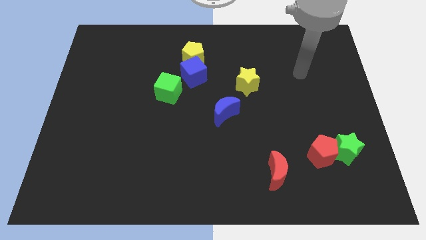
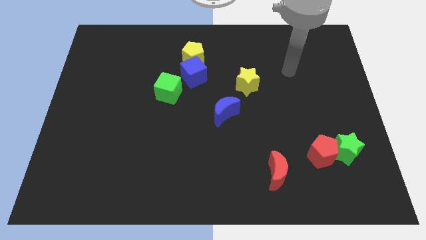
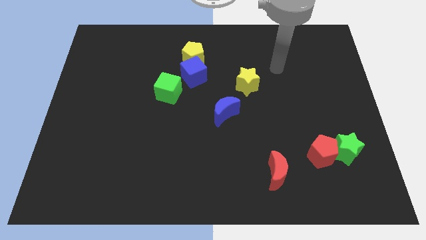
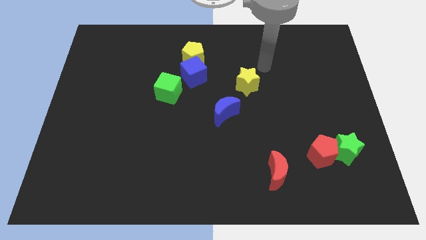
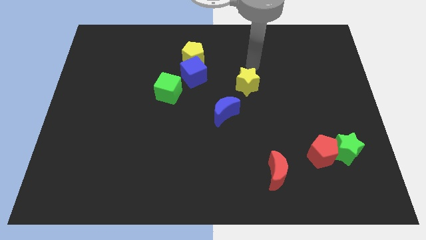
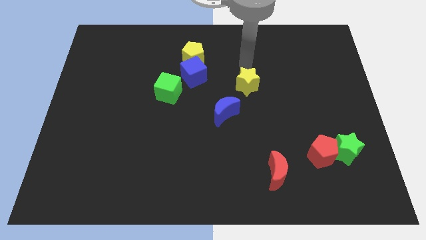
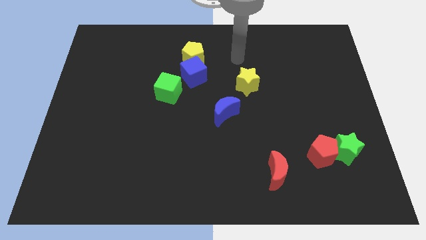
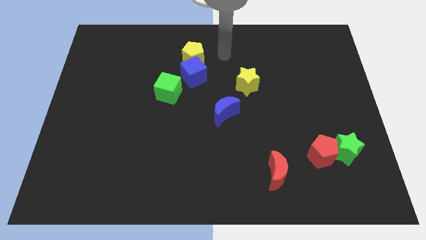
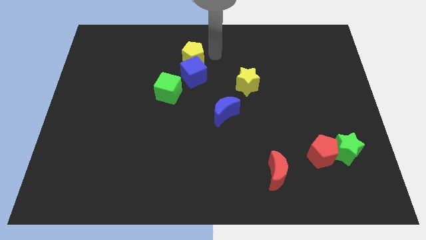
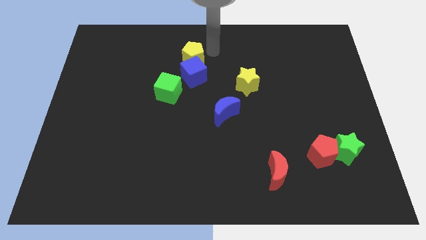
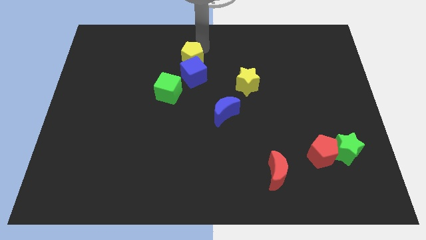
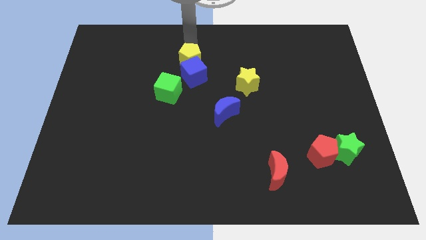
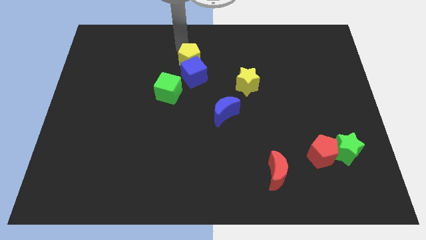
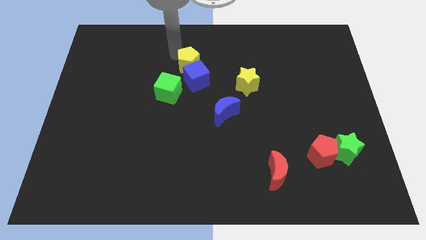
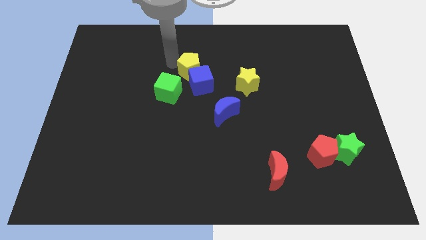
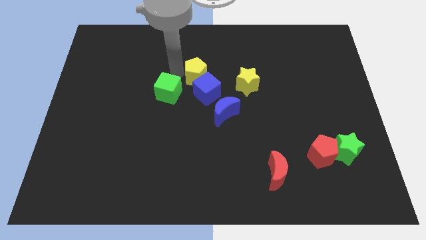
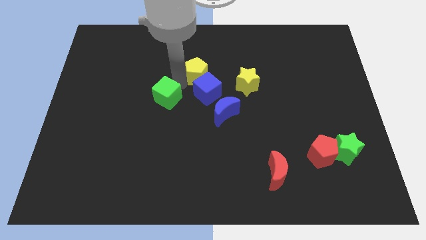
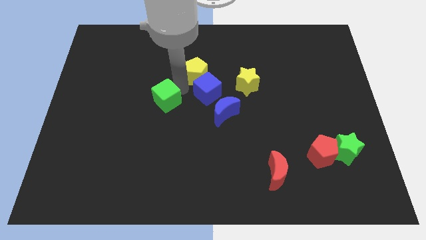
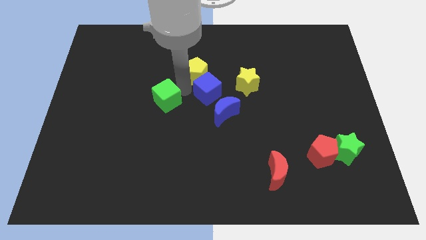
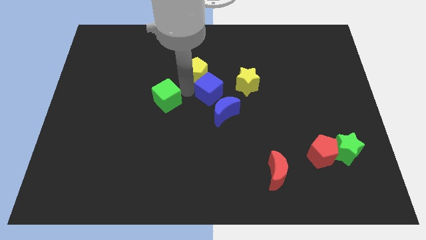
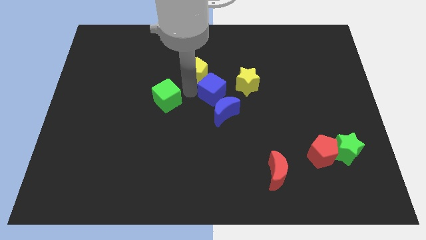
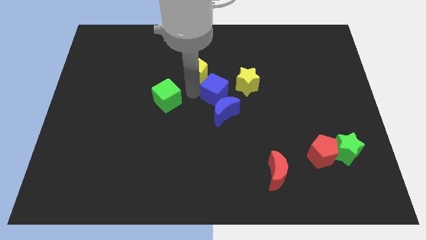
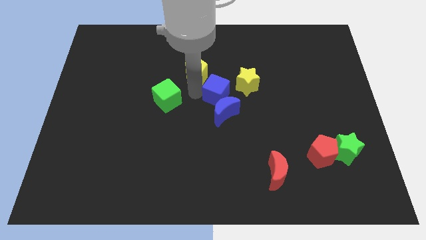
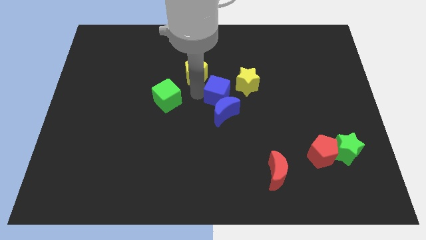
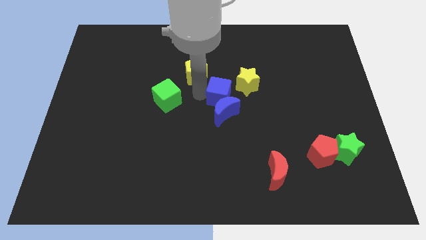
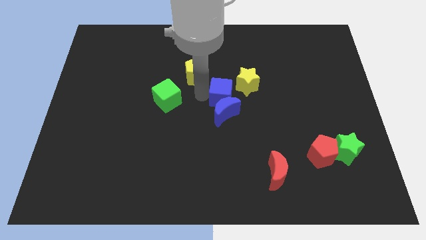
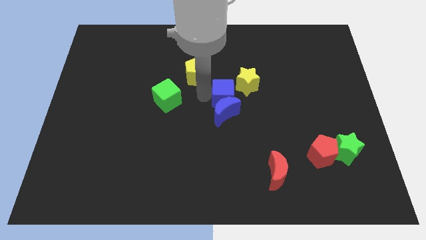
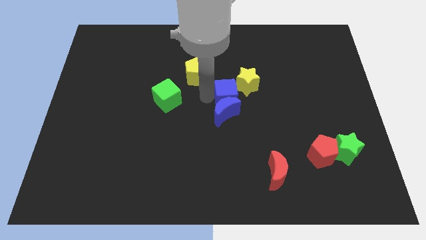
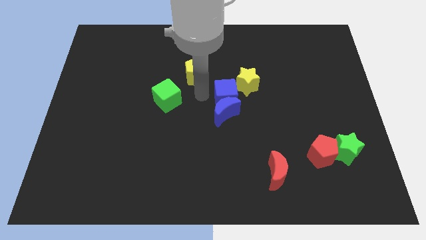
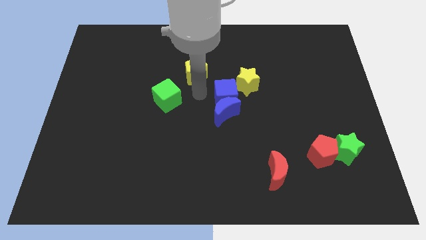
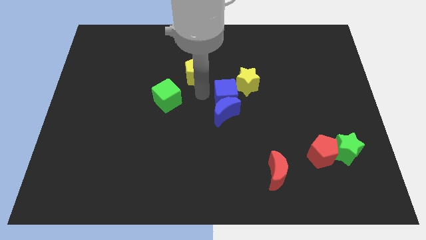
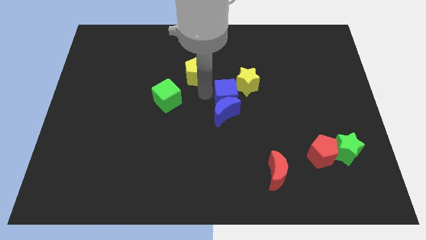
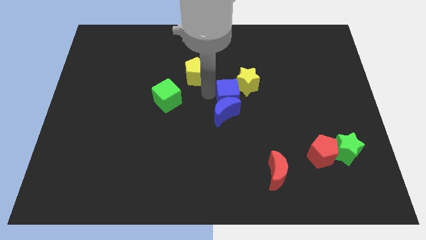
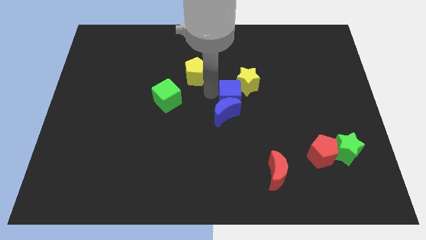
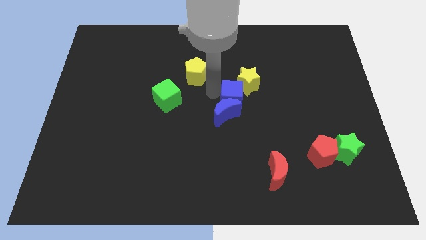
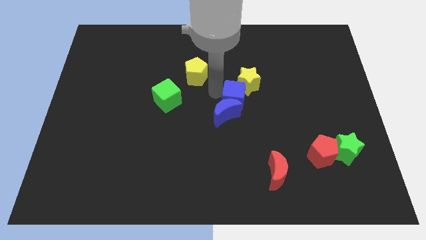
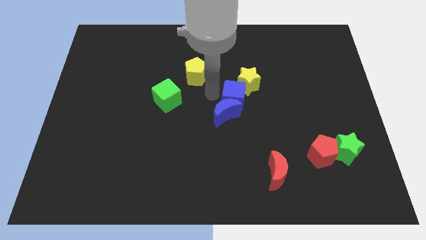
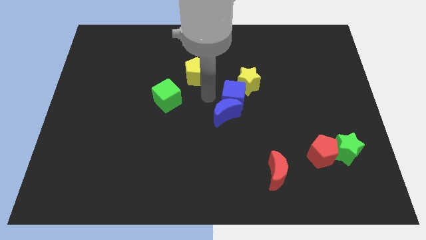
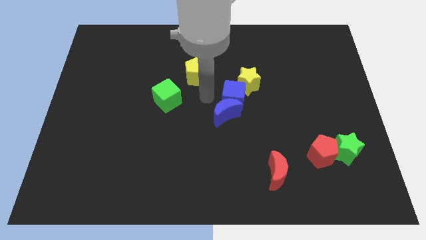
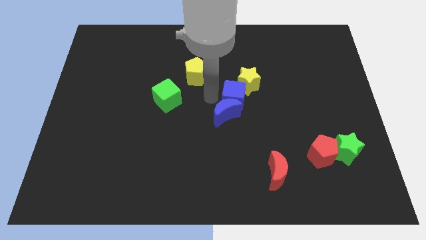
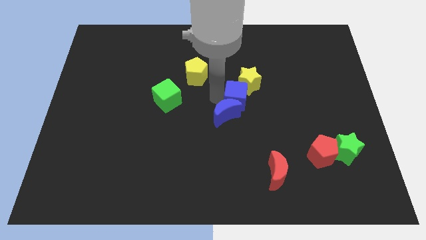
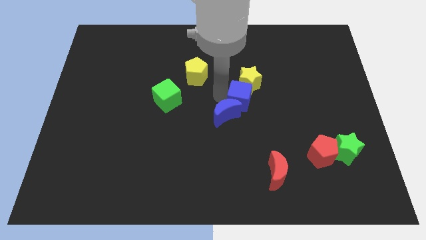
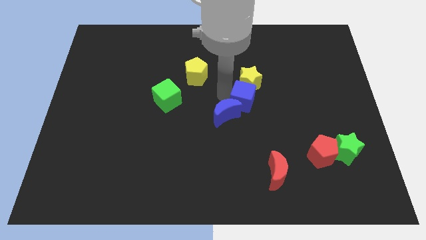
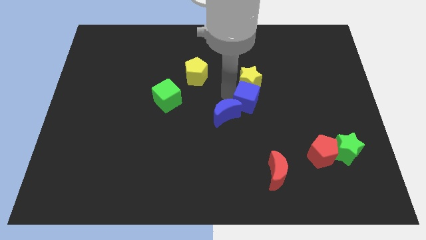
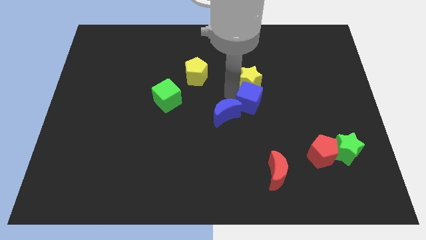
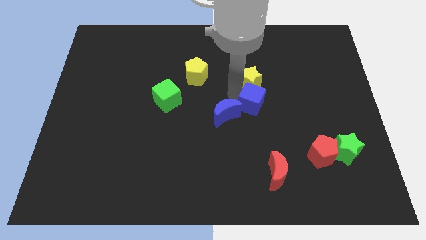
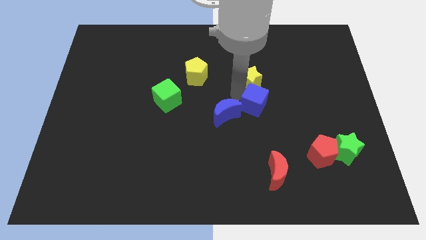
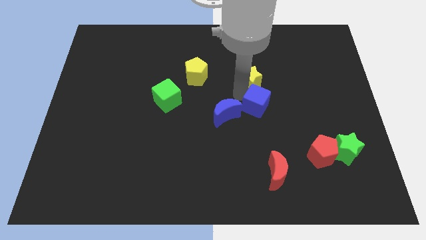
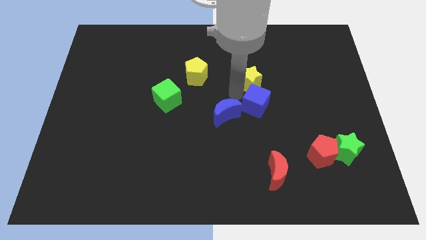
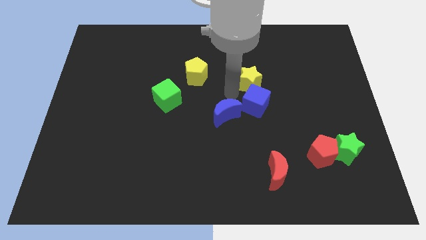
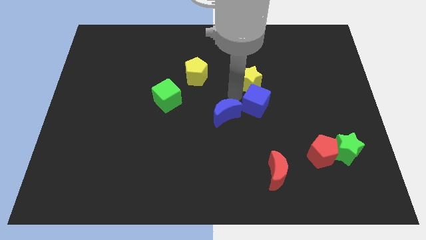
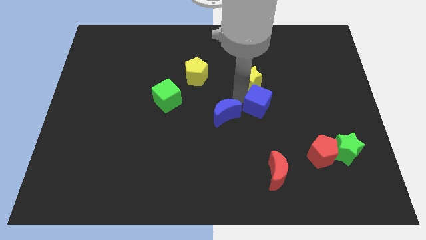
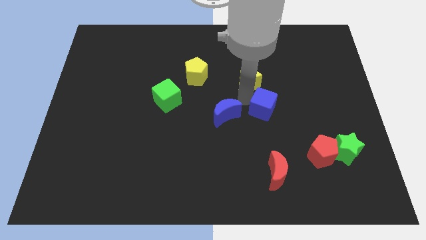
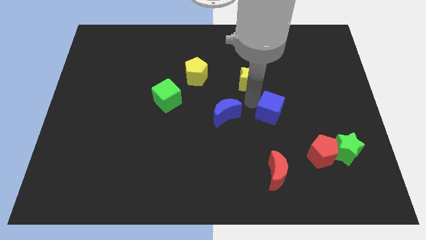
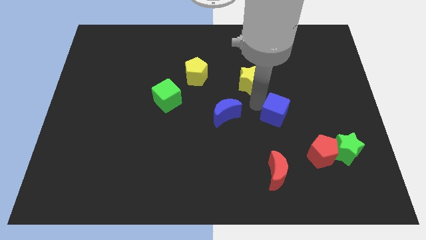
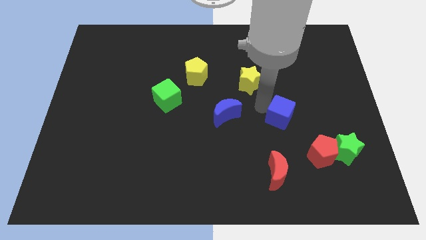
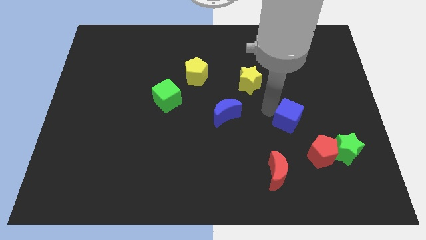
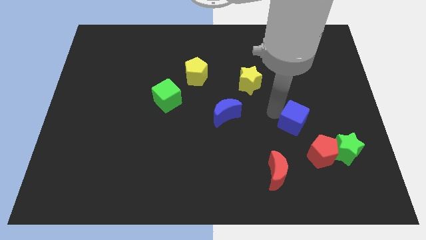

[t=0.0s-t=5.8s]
slide the blue cube diagonally up and to the left of the green star

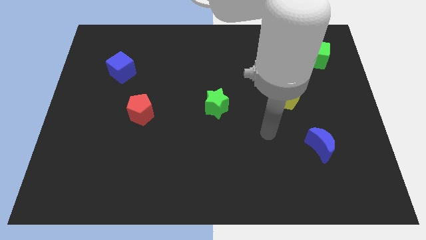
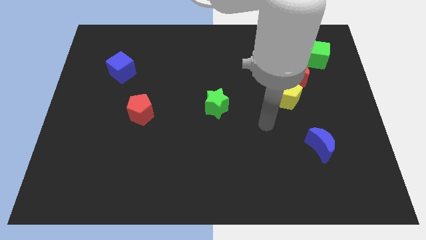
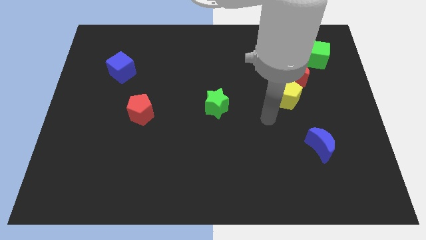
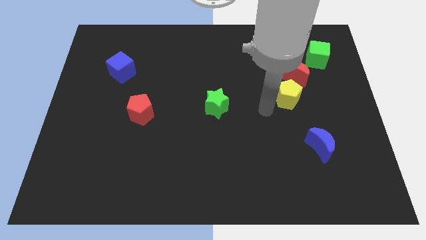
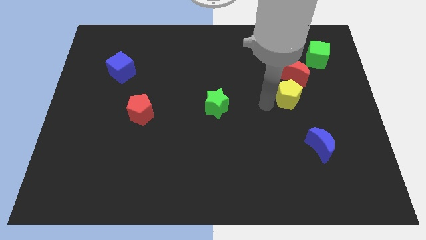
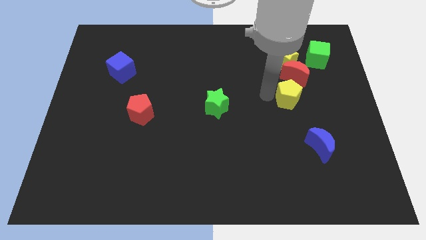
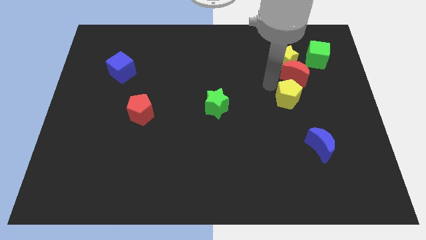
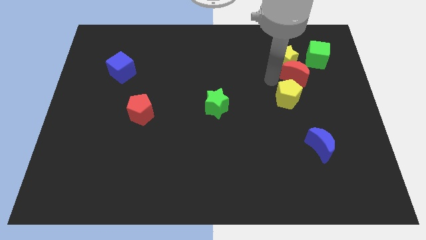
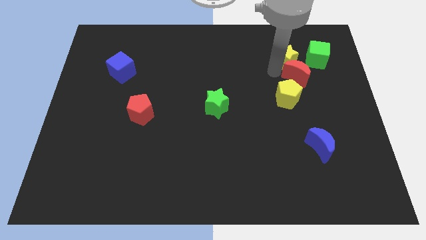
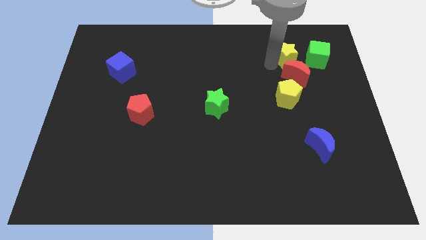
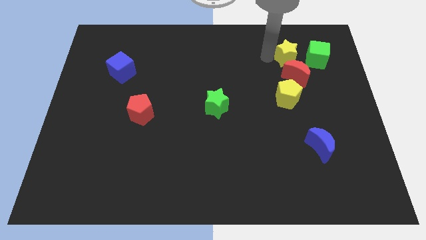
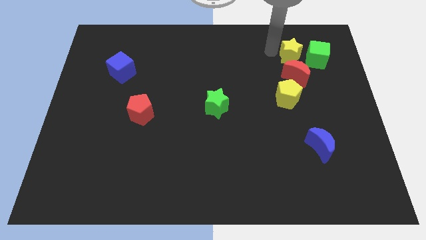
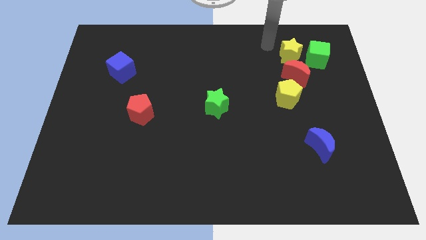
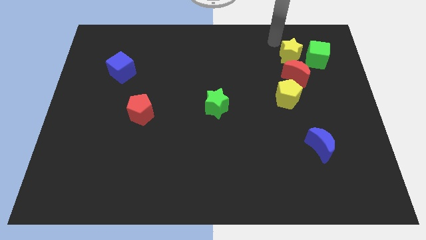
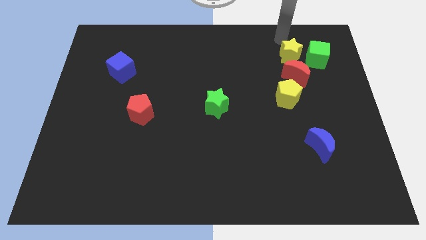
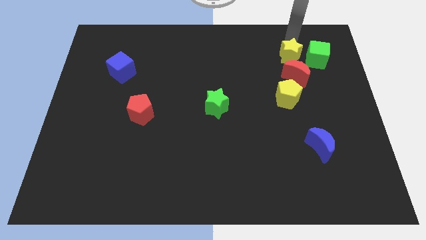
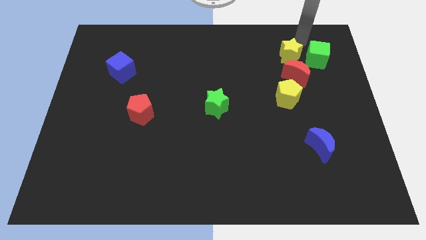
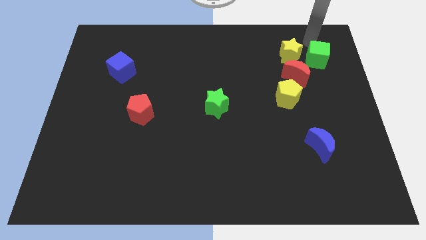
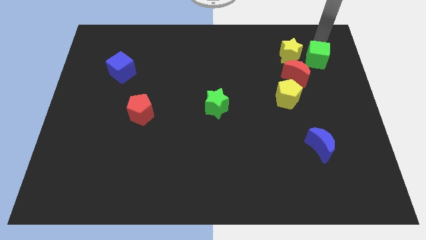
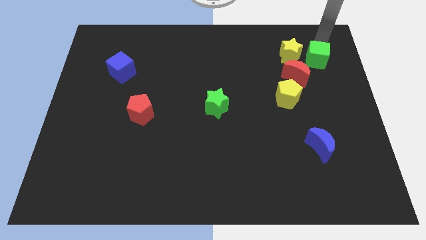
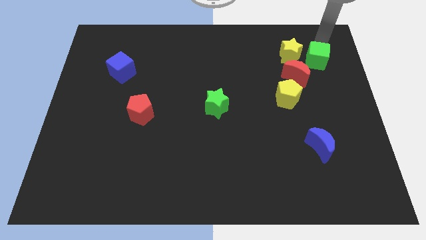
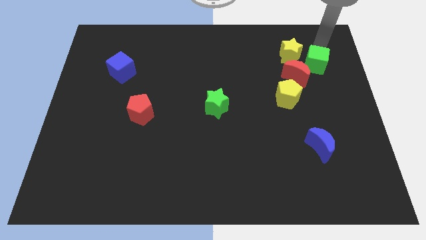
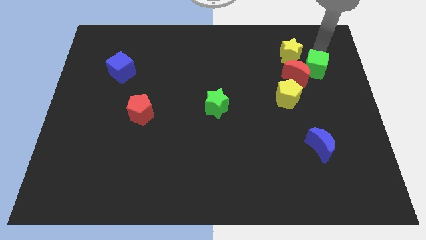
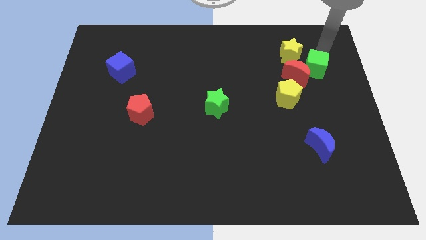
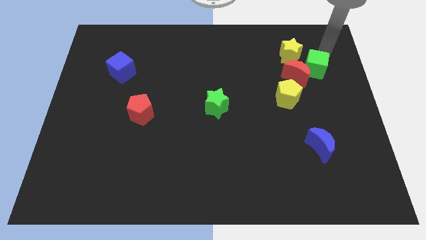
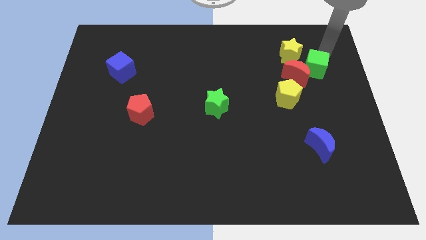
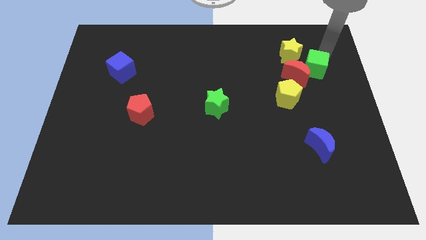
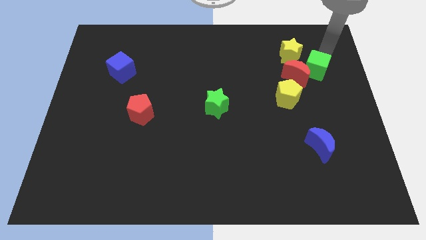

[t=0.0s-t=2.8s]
move the green cube to the top right side of the yellow pentagon
